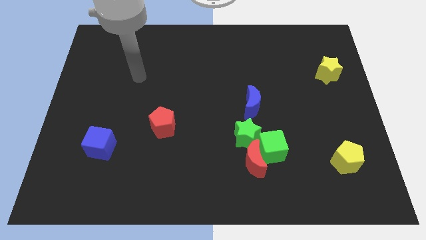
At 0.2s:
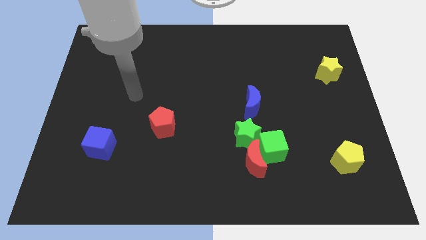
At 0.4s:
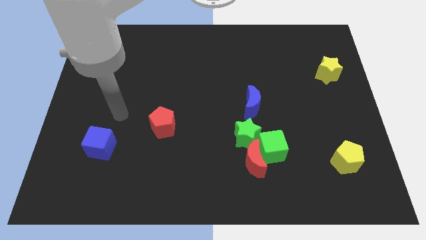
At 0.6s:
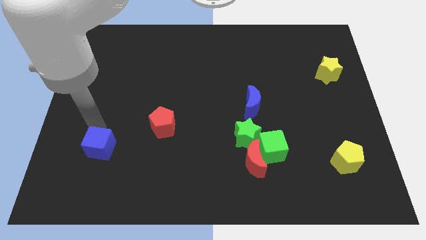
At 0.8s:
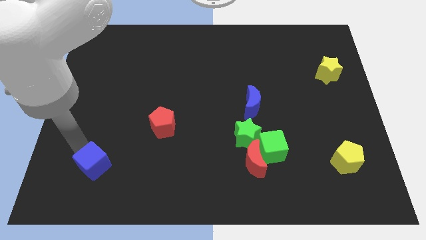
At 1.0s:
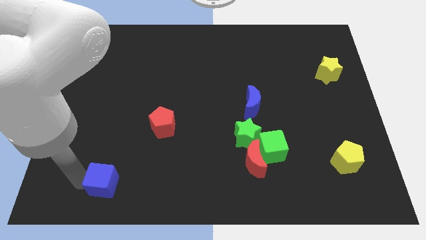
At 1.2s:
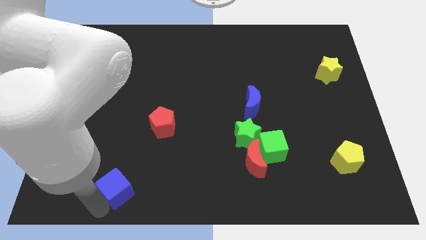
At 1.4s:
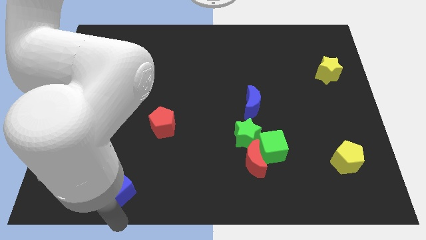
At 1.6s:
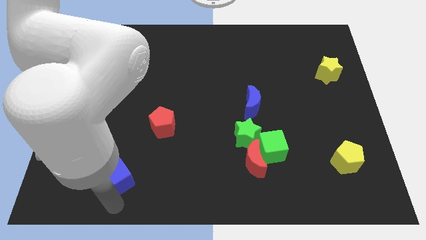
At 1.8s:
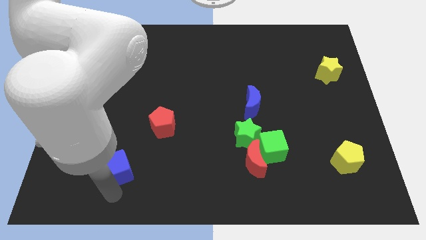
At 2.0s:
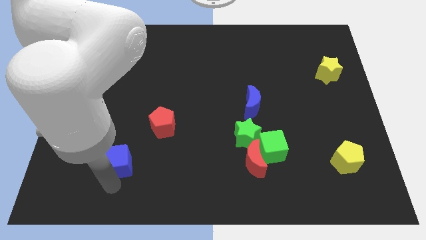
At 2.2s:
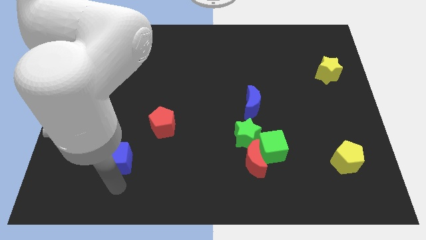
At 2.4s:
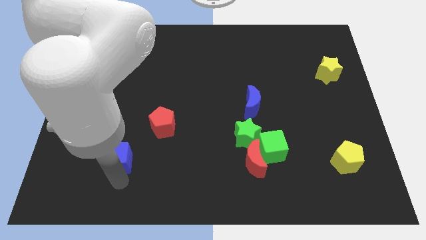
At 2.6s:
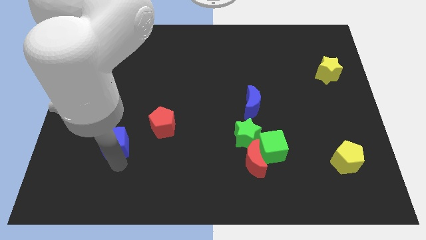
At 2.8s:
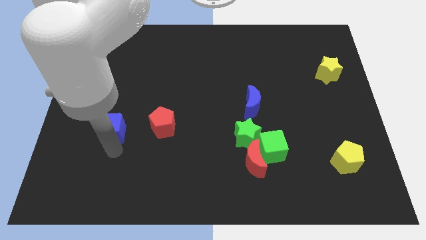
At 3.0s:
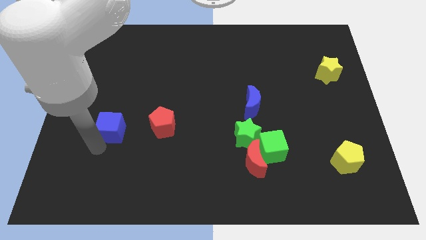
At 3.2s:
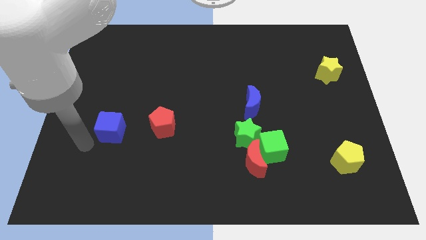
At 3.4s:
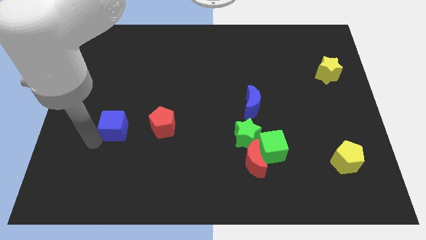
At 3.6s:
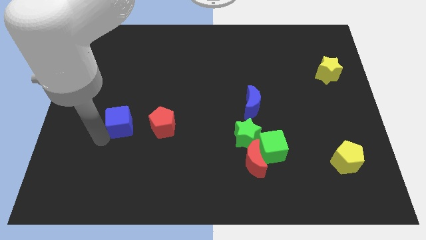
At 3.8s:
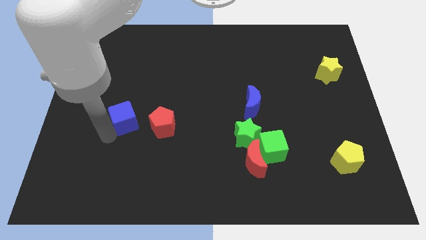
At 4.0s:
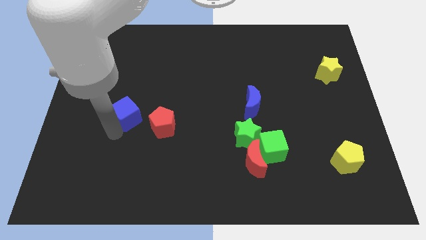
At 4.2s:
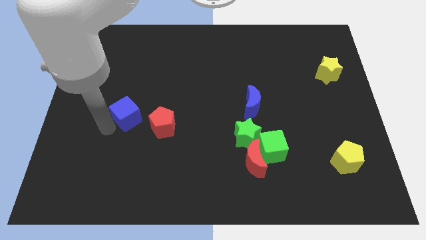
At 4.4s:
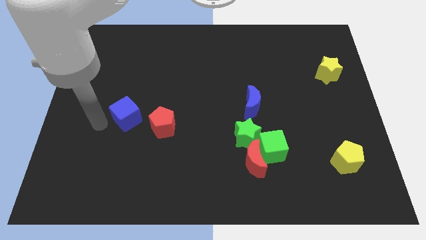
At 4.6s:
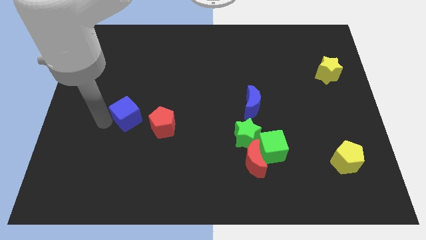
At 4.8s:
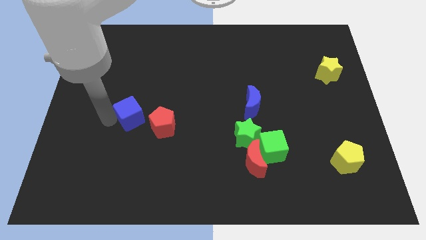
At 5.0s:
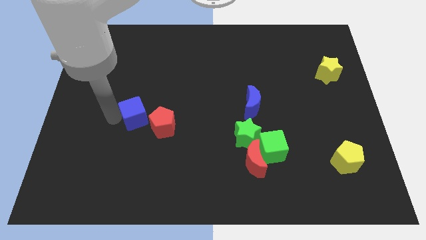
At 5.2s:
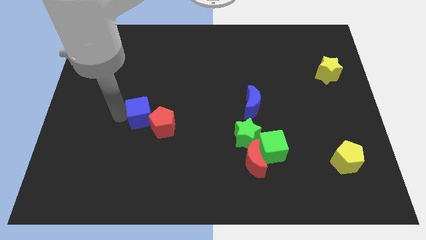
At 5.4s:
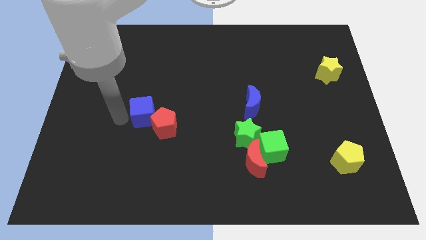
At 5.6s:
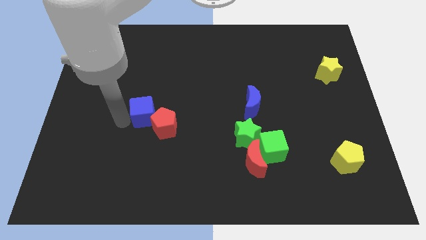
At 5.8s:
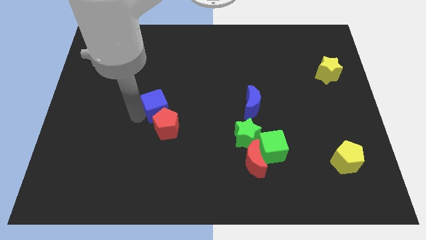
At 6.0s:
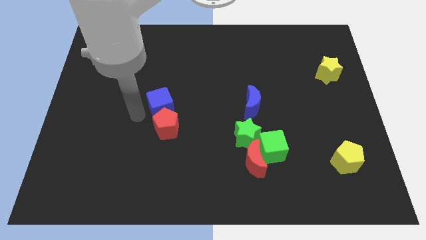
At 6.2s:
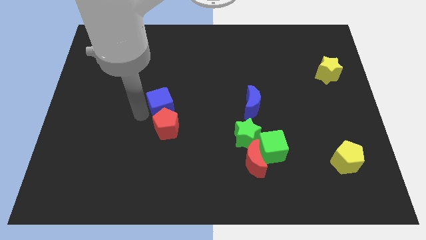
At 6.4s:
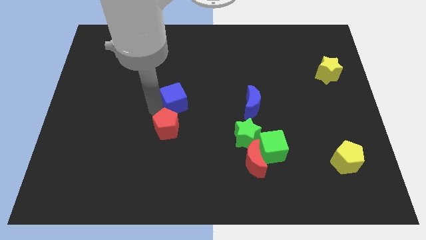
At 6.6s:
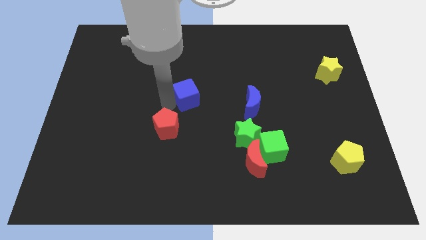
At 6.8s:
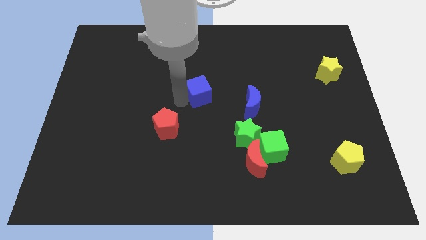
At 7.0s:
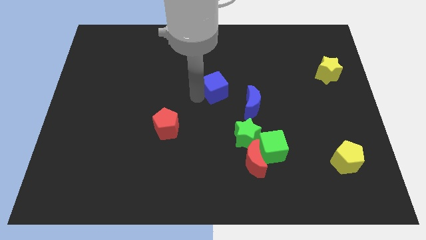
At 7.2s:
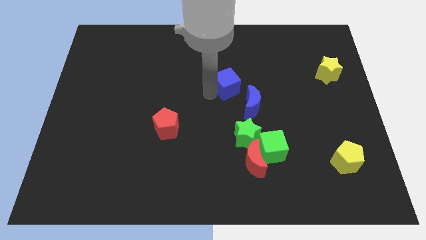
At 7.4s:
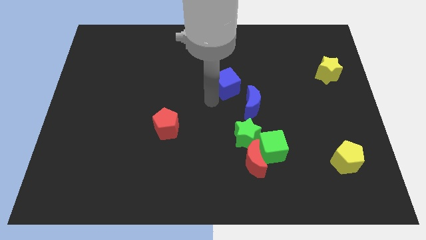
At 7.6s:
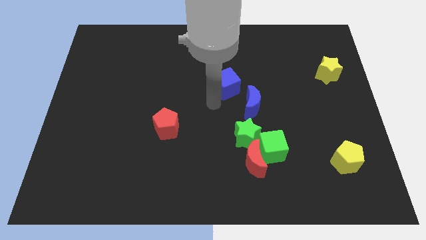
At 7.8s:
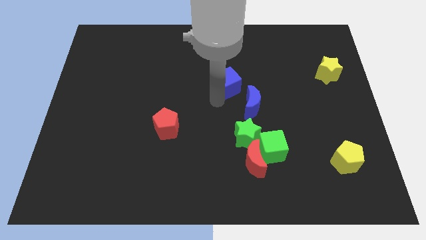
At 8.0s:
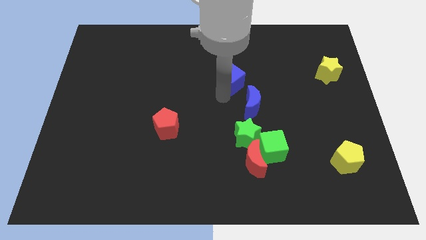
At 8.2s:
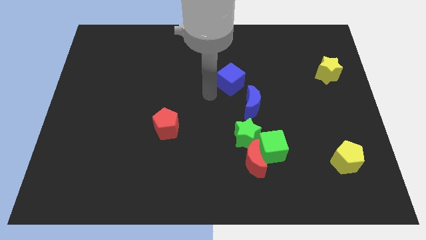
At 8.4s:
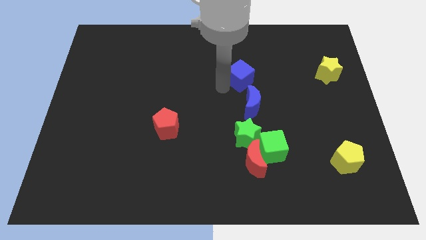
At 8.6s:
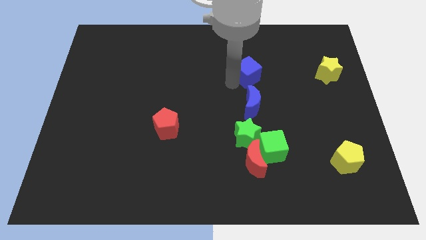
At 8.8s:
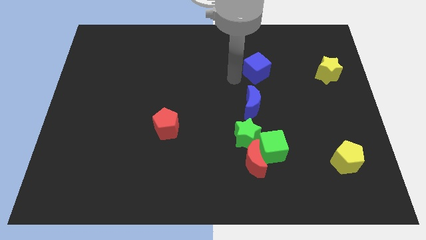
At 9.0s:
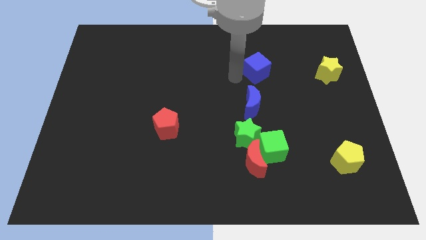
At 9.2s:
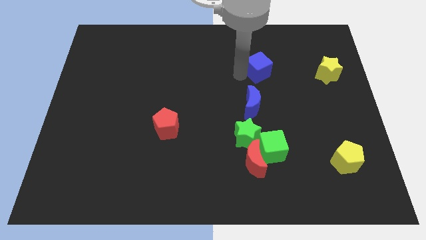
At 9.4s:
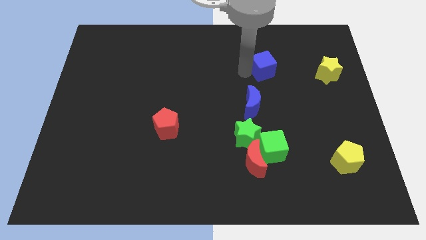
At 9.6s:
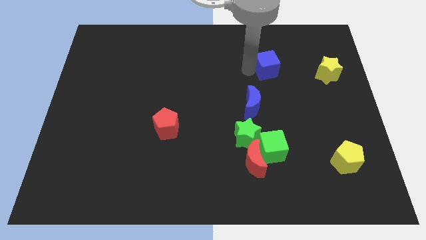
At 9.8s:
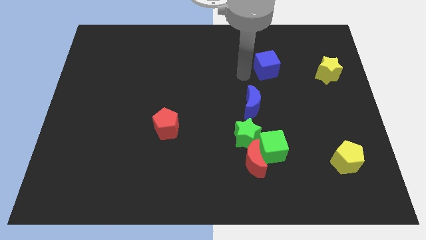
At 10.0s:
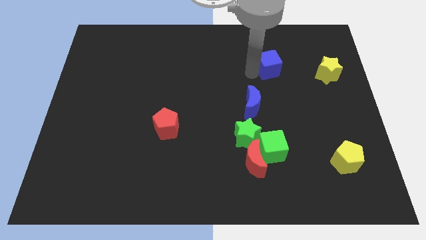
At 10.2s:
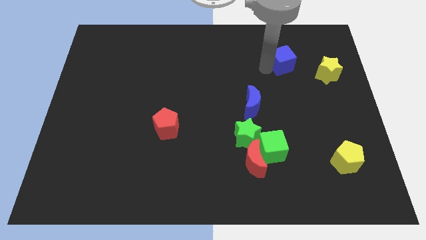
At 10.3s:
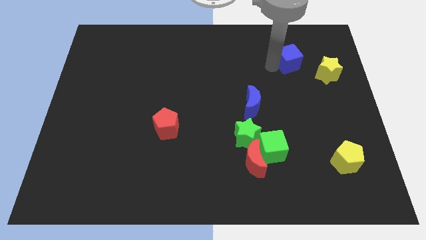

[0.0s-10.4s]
put the blue cube diagonally up and to the left of the yellow star

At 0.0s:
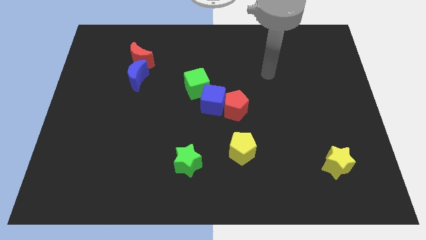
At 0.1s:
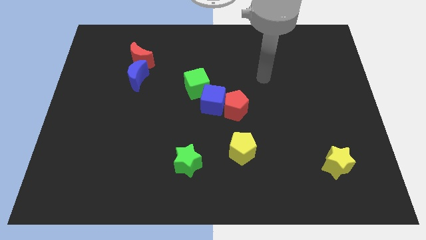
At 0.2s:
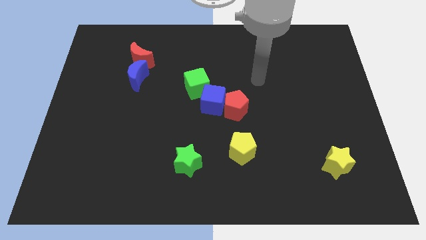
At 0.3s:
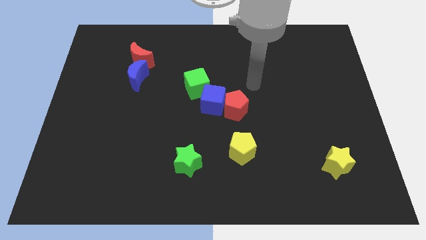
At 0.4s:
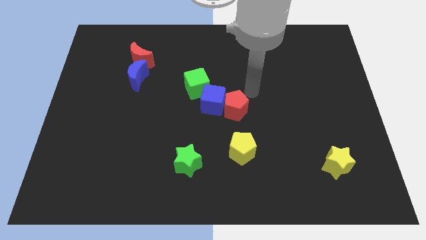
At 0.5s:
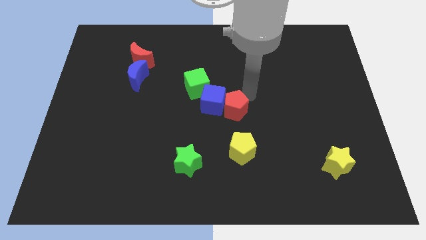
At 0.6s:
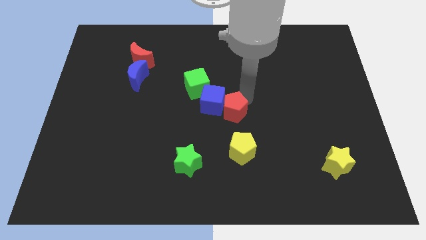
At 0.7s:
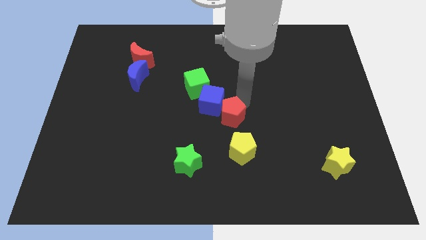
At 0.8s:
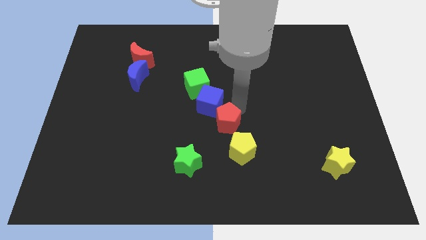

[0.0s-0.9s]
move the red pentagon to the bottom of the blue cube

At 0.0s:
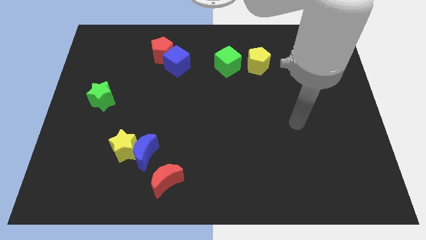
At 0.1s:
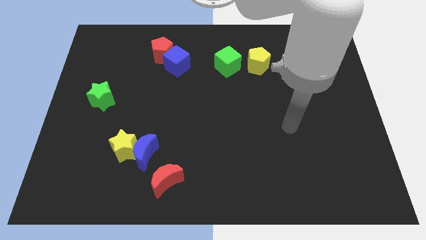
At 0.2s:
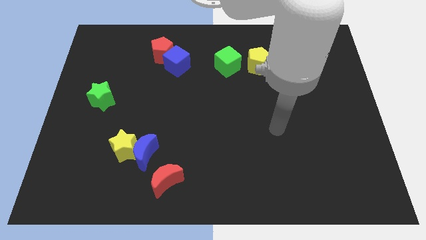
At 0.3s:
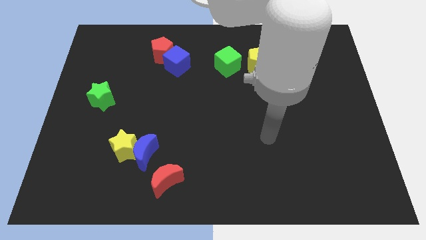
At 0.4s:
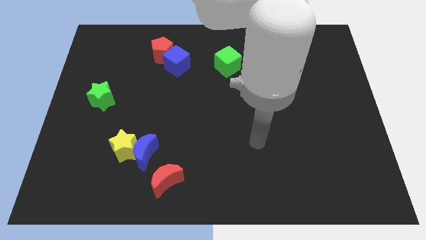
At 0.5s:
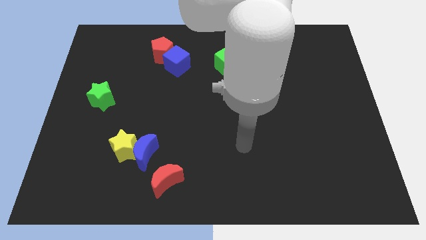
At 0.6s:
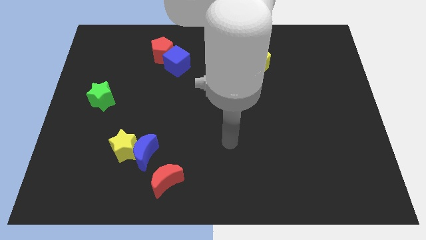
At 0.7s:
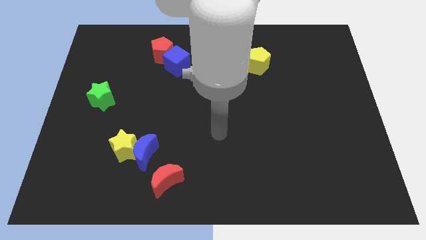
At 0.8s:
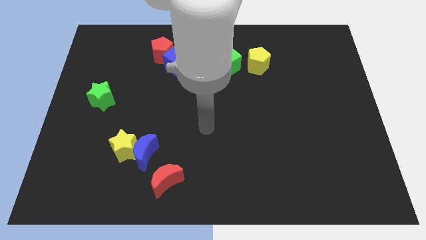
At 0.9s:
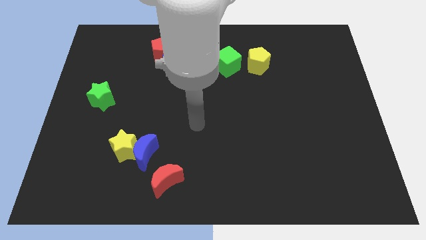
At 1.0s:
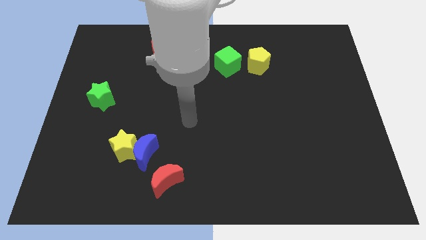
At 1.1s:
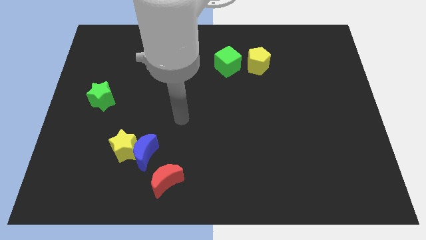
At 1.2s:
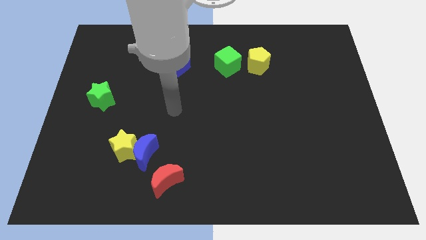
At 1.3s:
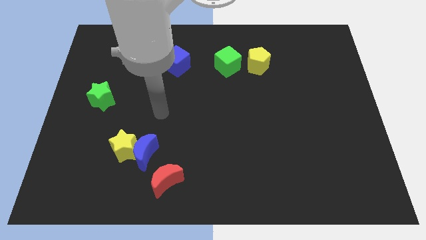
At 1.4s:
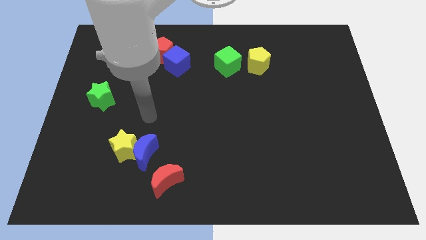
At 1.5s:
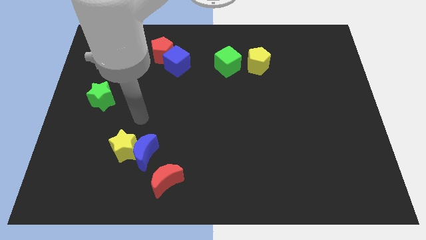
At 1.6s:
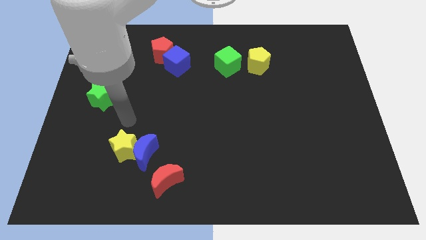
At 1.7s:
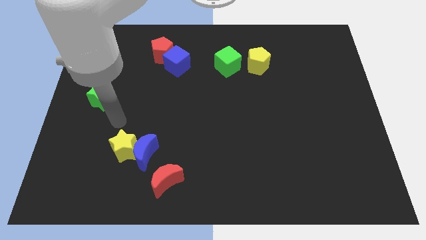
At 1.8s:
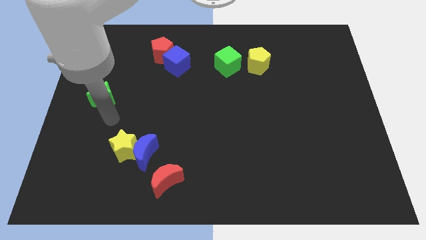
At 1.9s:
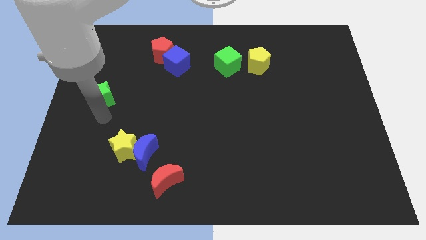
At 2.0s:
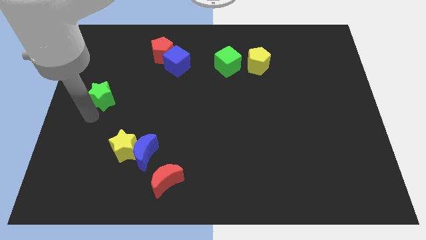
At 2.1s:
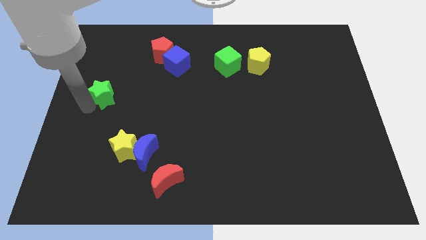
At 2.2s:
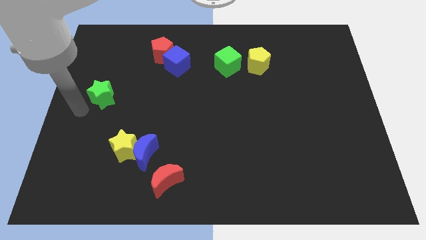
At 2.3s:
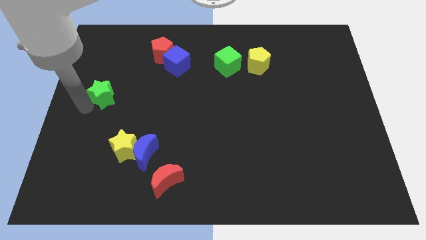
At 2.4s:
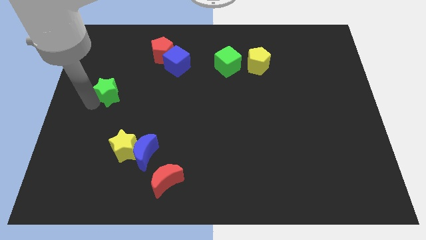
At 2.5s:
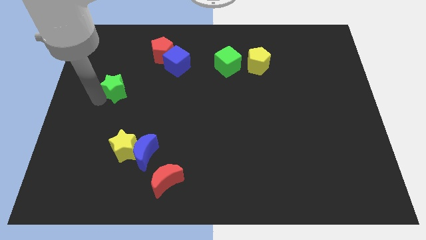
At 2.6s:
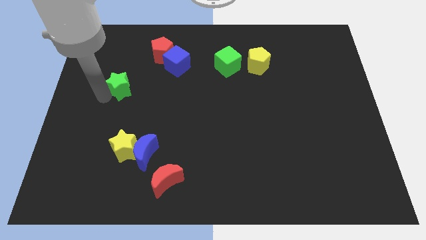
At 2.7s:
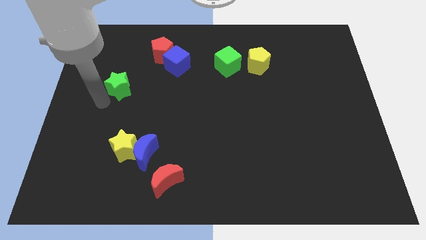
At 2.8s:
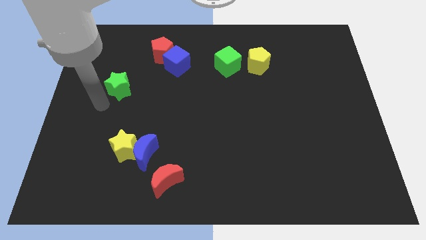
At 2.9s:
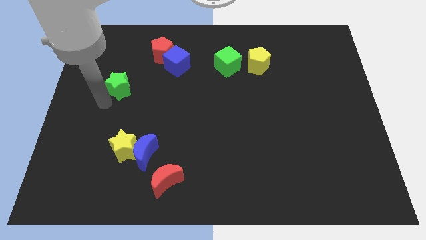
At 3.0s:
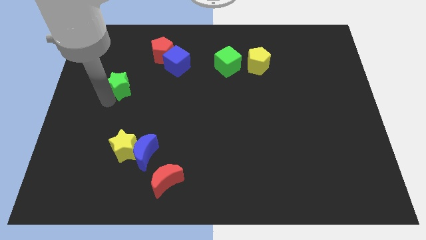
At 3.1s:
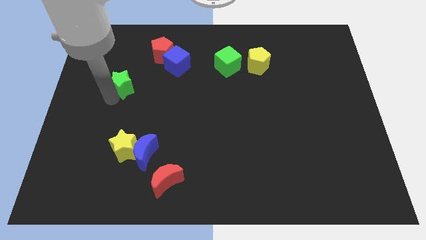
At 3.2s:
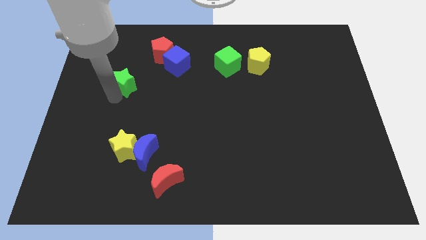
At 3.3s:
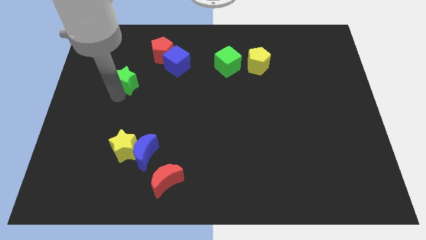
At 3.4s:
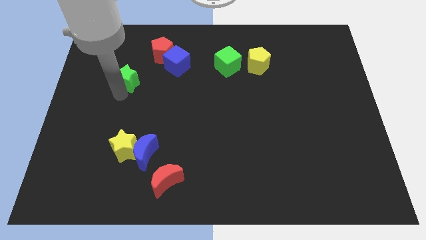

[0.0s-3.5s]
slide the green star diagonally down and to the left of the red pentagon
